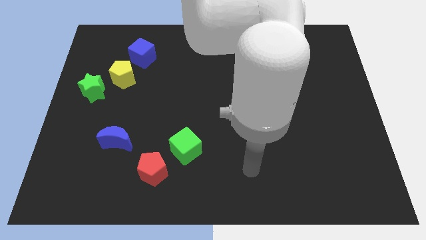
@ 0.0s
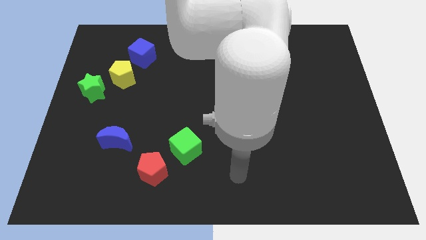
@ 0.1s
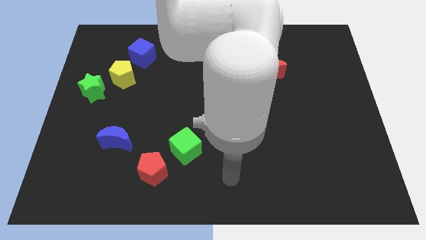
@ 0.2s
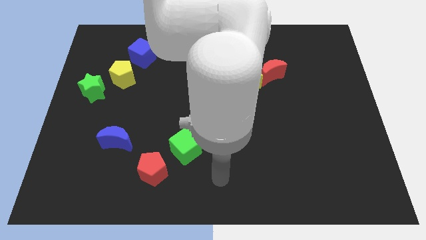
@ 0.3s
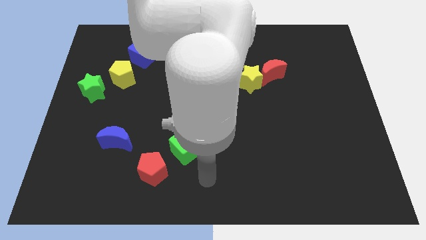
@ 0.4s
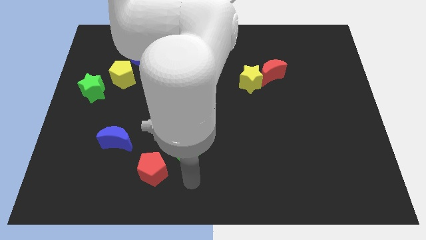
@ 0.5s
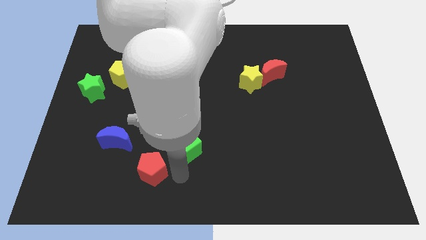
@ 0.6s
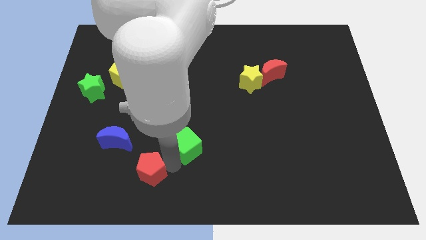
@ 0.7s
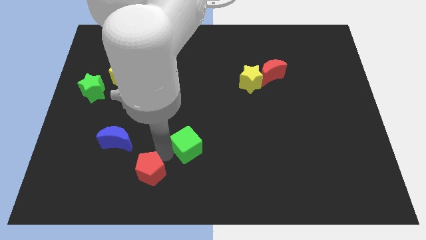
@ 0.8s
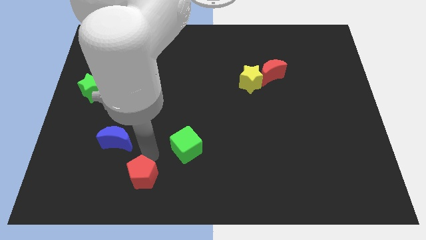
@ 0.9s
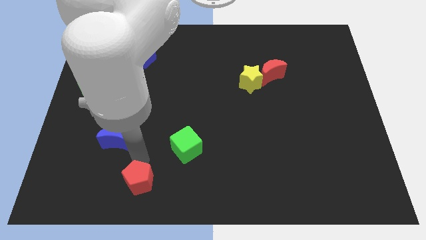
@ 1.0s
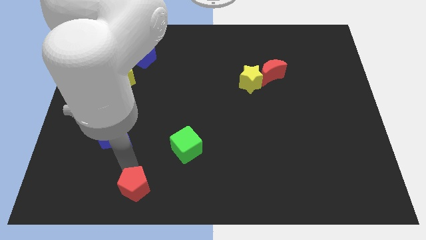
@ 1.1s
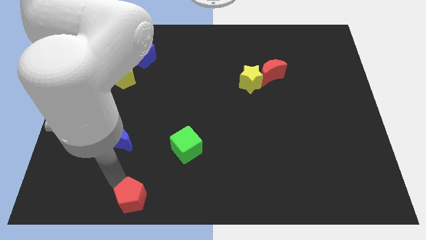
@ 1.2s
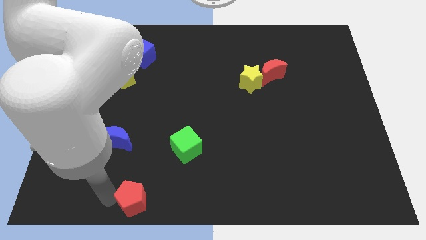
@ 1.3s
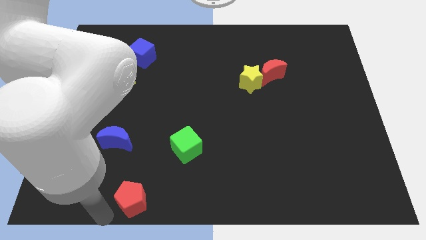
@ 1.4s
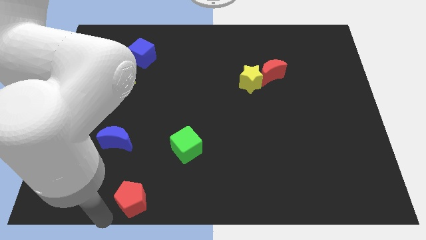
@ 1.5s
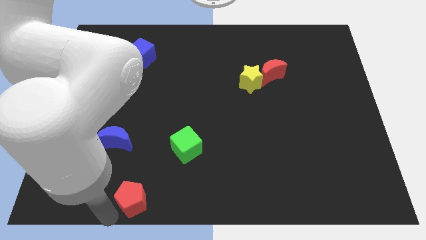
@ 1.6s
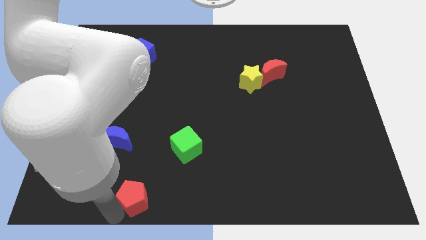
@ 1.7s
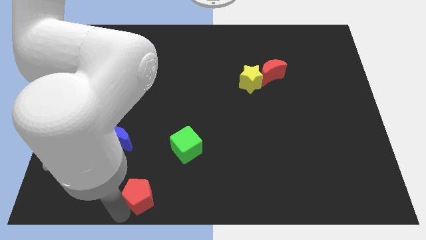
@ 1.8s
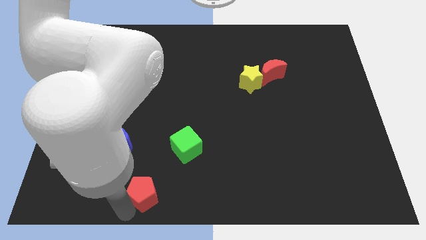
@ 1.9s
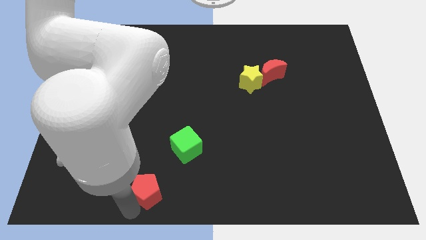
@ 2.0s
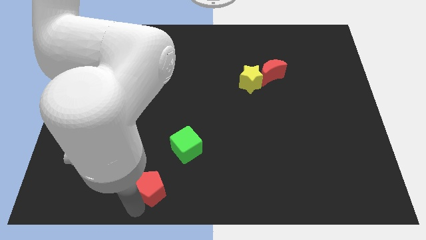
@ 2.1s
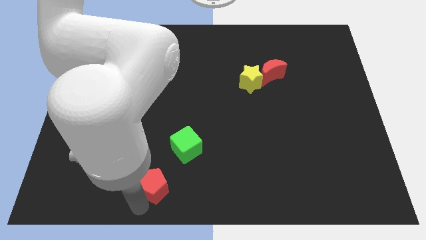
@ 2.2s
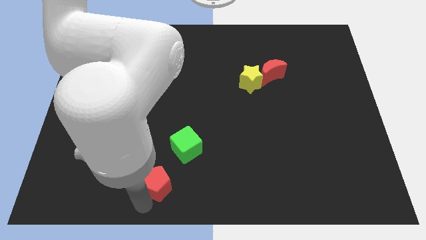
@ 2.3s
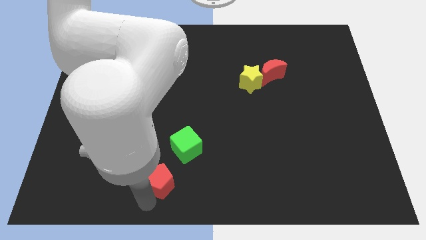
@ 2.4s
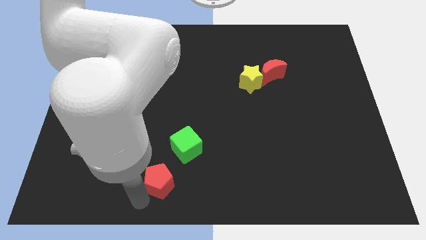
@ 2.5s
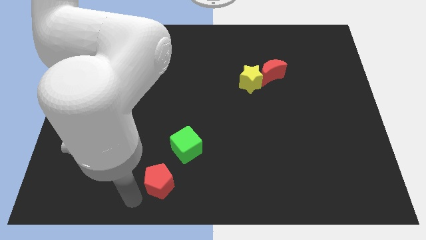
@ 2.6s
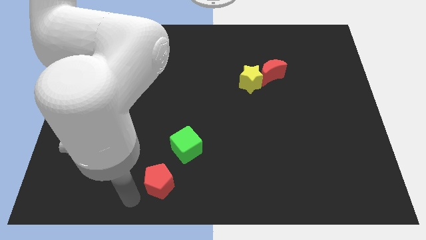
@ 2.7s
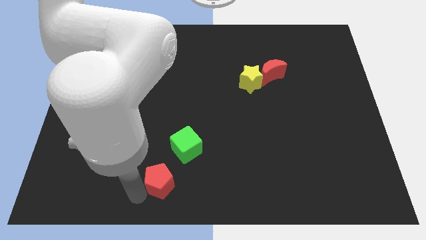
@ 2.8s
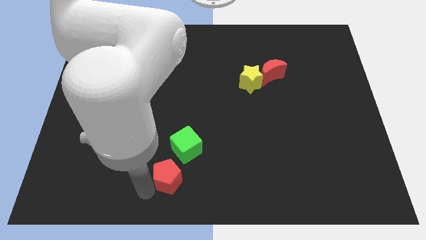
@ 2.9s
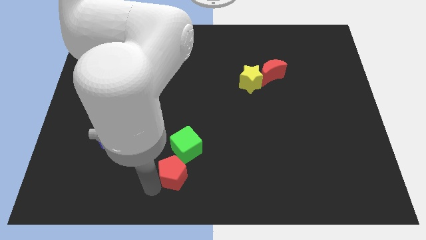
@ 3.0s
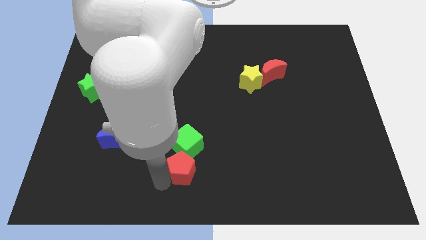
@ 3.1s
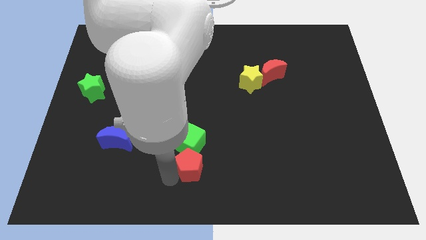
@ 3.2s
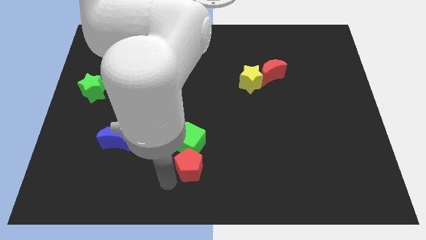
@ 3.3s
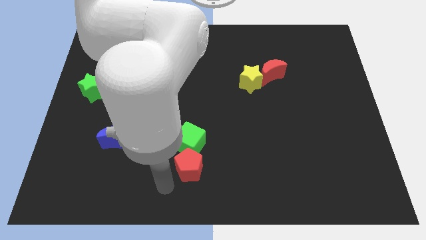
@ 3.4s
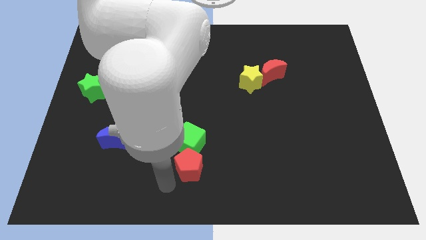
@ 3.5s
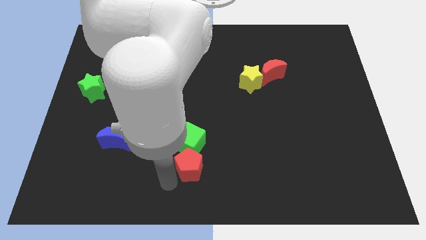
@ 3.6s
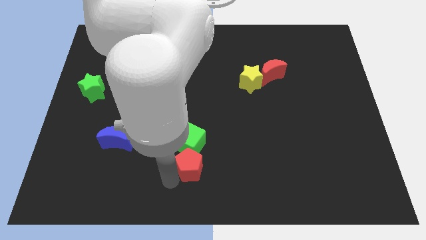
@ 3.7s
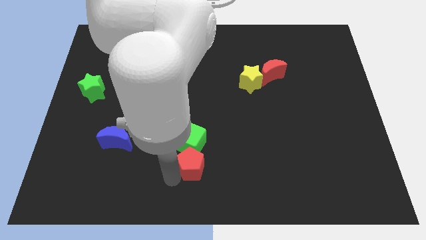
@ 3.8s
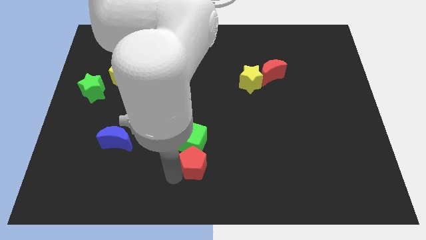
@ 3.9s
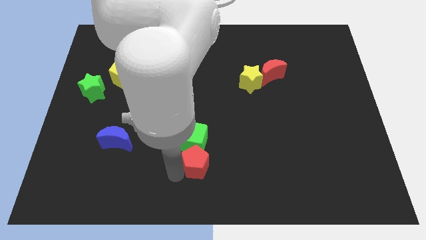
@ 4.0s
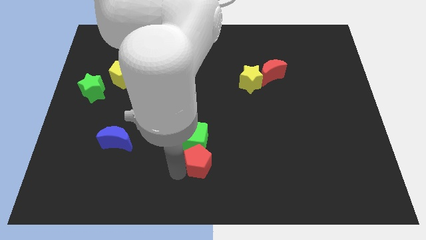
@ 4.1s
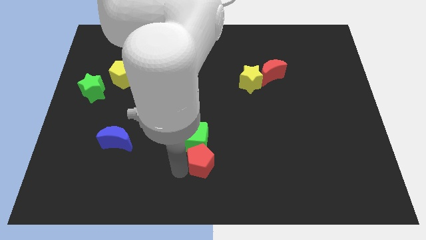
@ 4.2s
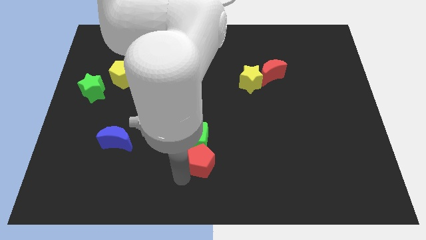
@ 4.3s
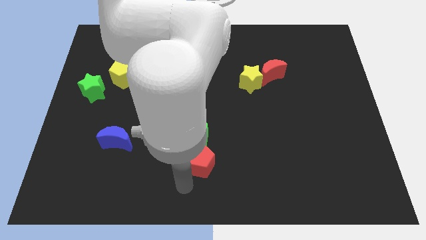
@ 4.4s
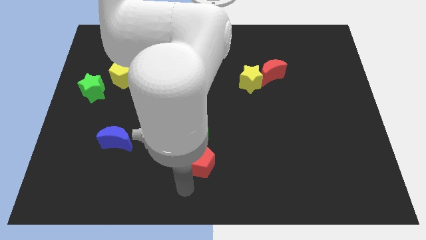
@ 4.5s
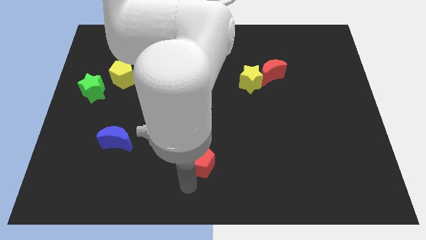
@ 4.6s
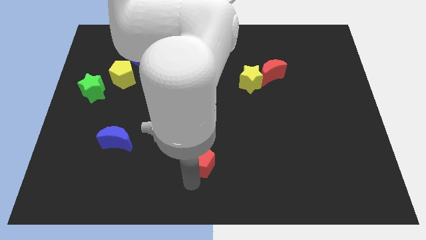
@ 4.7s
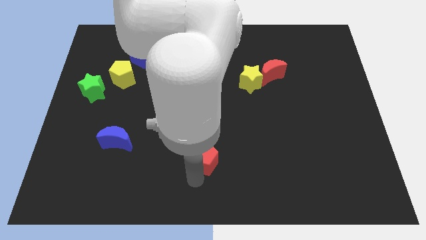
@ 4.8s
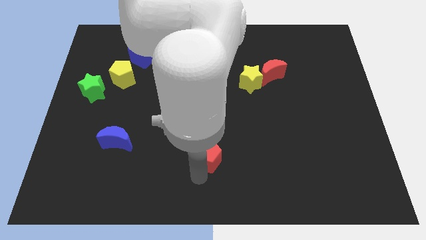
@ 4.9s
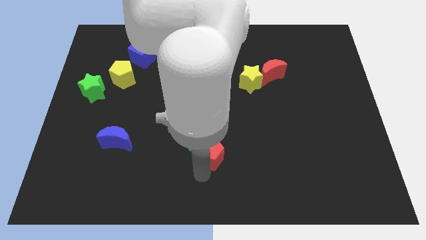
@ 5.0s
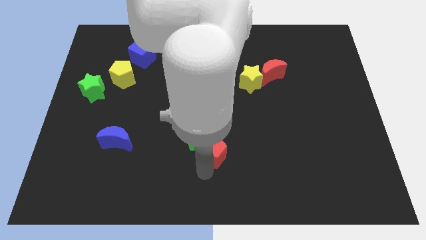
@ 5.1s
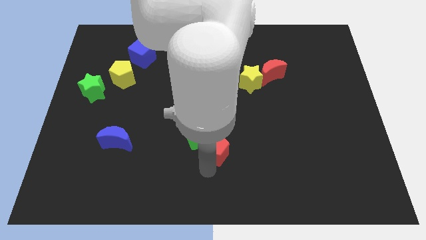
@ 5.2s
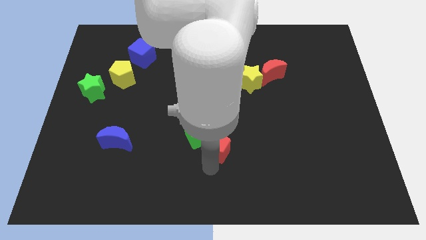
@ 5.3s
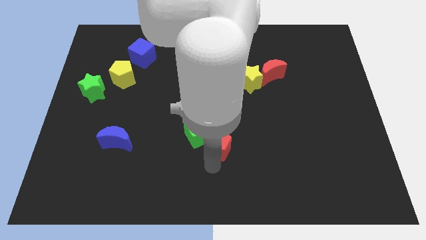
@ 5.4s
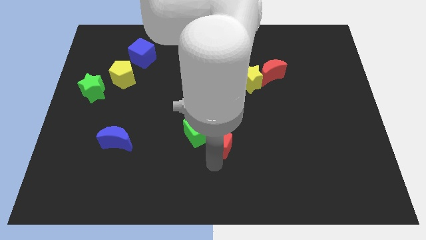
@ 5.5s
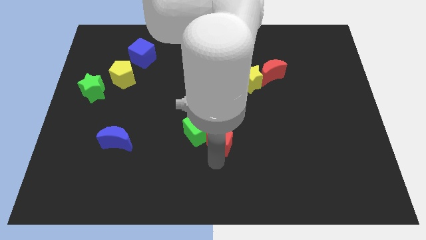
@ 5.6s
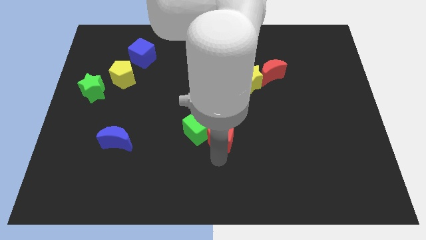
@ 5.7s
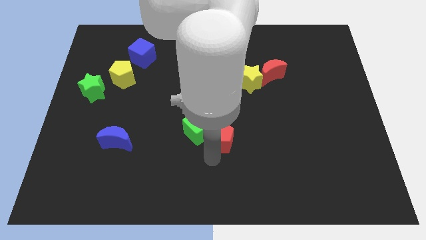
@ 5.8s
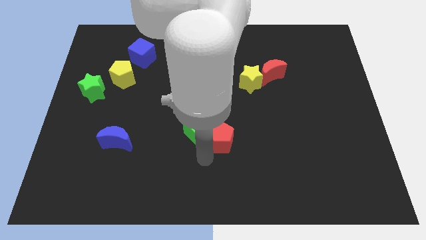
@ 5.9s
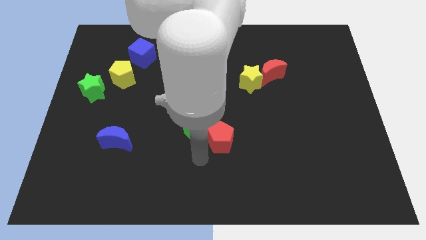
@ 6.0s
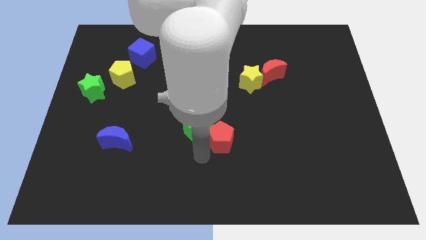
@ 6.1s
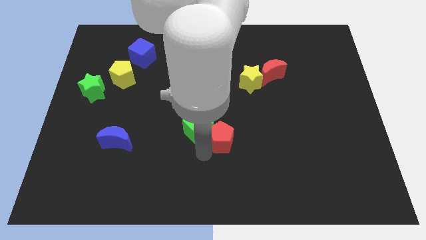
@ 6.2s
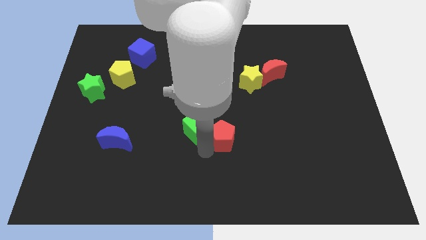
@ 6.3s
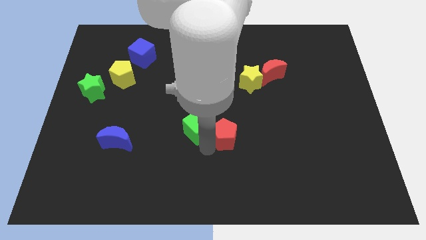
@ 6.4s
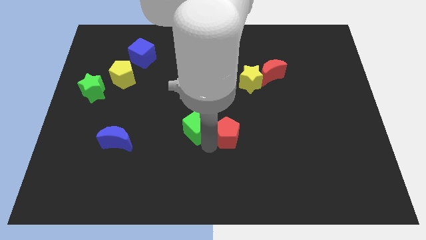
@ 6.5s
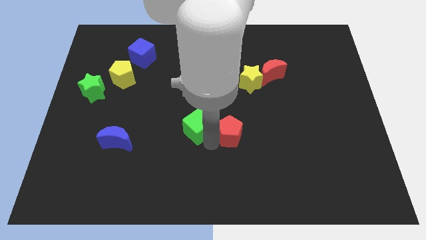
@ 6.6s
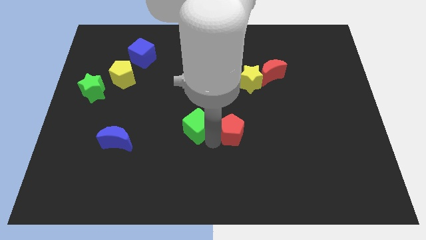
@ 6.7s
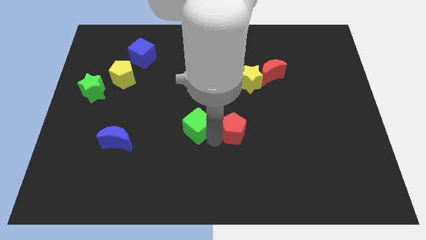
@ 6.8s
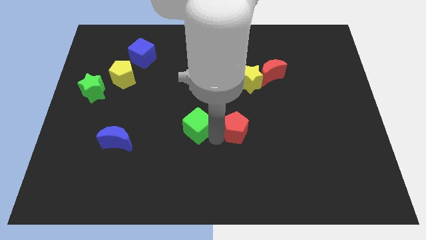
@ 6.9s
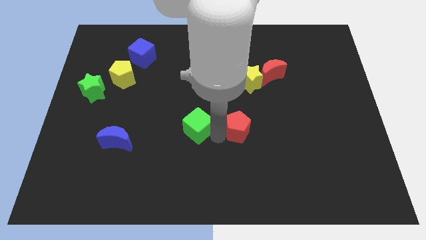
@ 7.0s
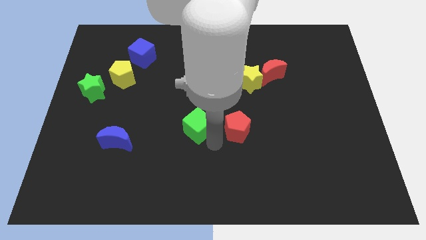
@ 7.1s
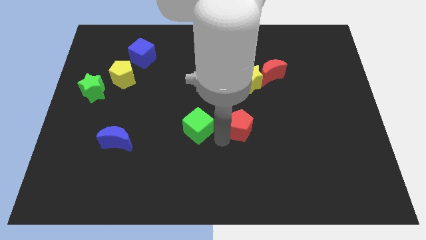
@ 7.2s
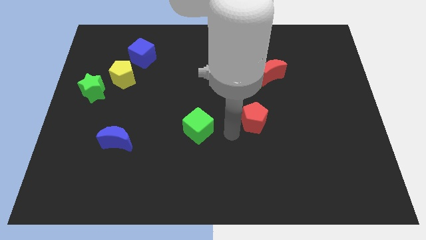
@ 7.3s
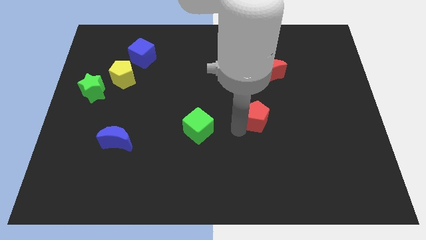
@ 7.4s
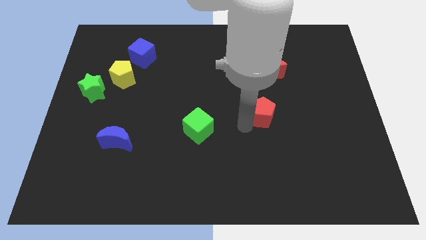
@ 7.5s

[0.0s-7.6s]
put the red pentagon to the bottom of the red moon
